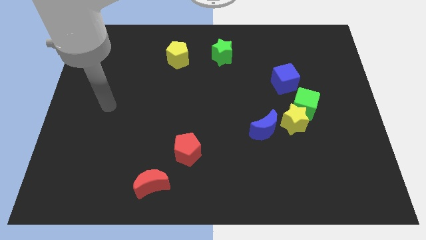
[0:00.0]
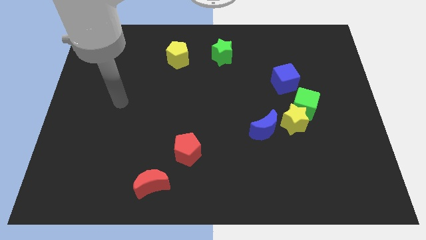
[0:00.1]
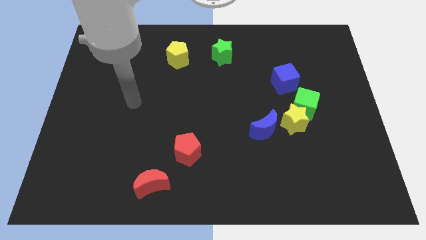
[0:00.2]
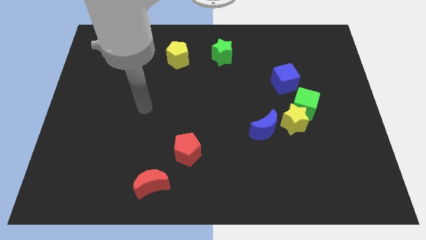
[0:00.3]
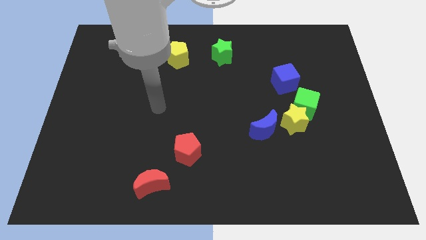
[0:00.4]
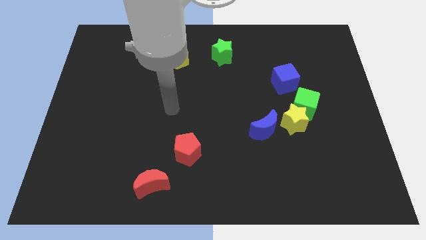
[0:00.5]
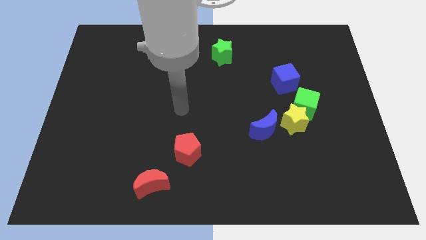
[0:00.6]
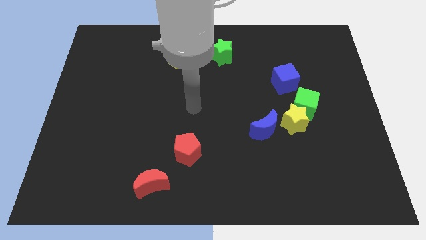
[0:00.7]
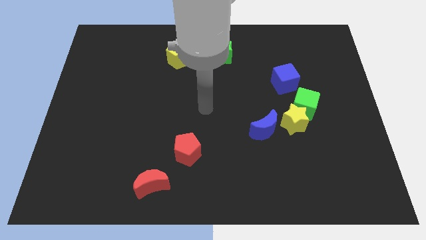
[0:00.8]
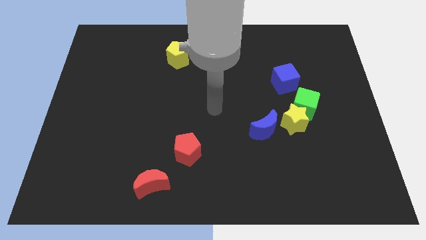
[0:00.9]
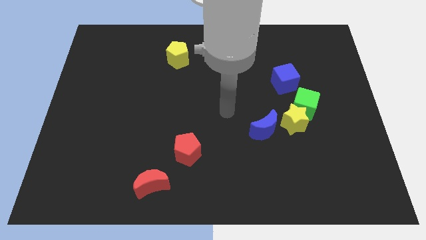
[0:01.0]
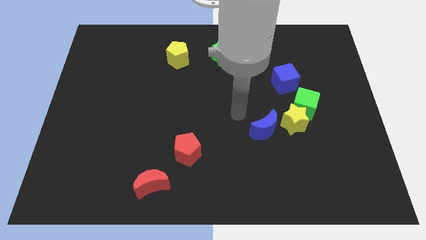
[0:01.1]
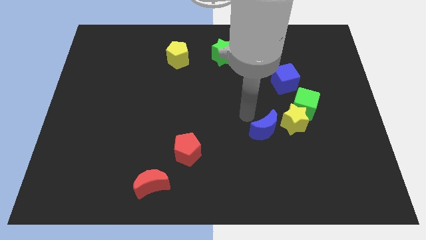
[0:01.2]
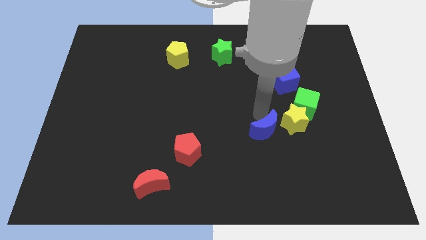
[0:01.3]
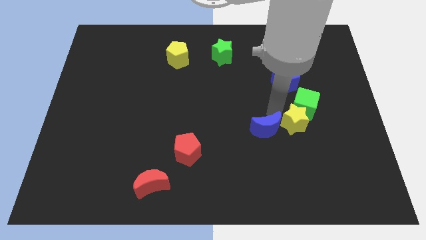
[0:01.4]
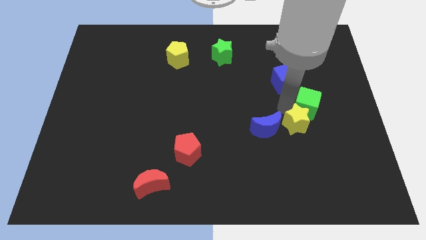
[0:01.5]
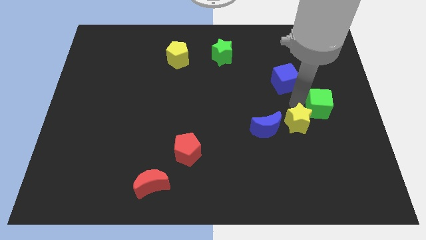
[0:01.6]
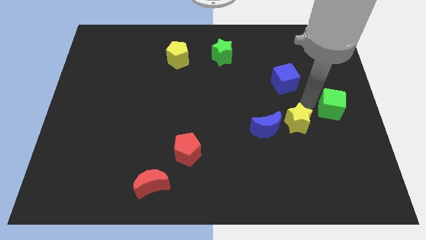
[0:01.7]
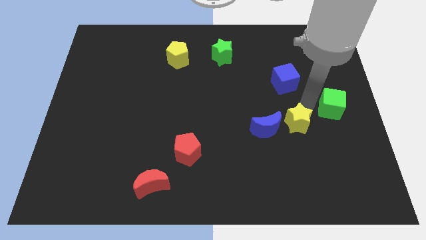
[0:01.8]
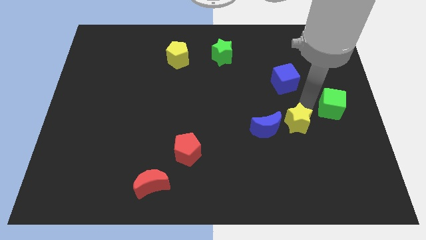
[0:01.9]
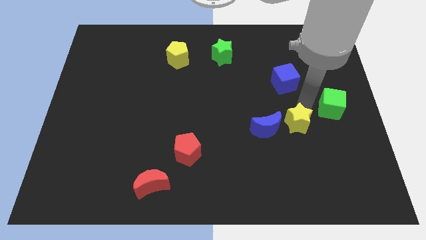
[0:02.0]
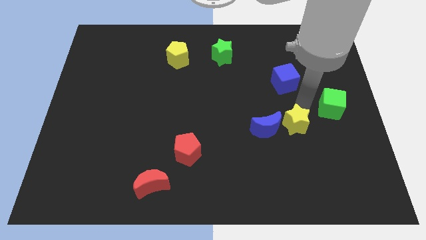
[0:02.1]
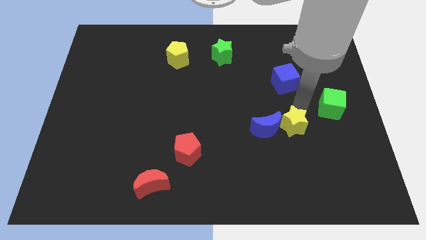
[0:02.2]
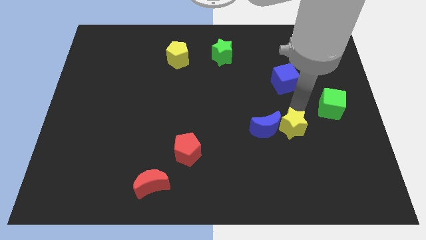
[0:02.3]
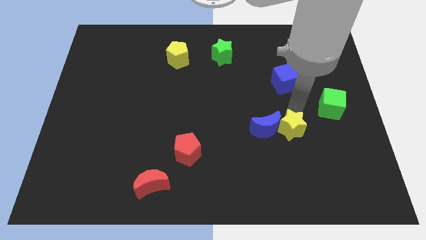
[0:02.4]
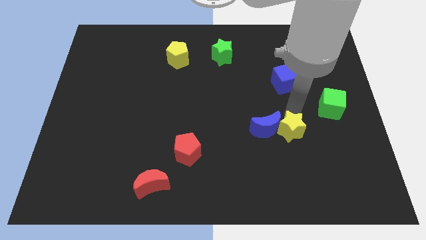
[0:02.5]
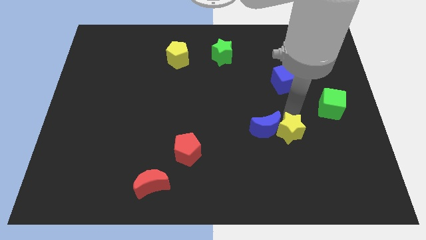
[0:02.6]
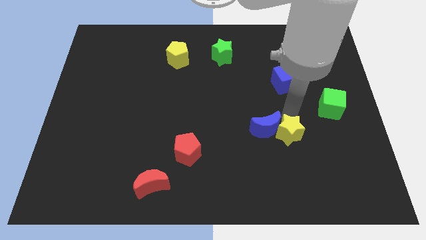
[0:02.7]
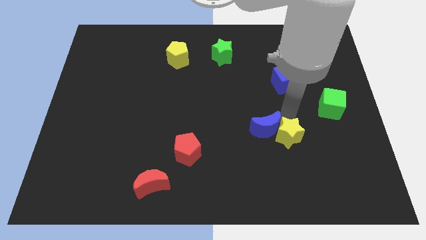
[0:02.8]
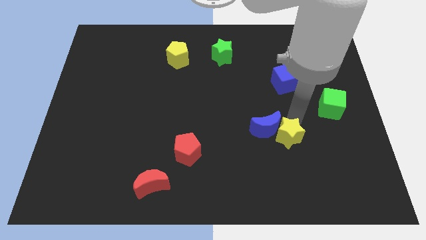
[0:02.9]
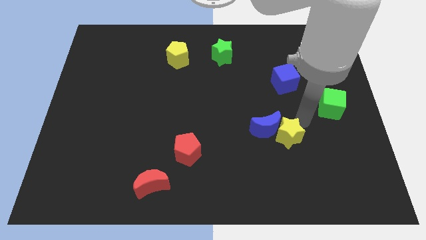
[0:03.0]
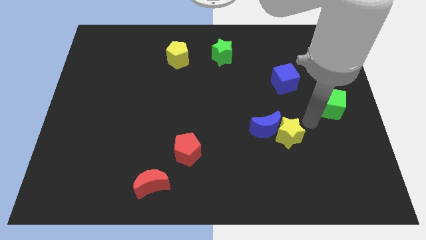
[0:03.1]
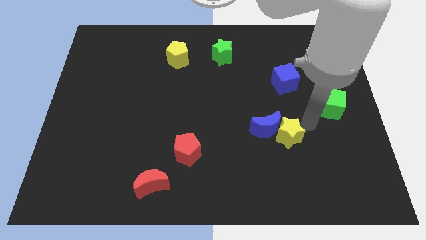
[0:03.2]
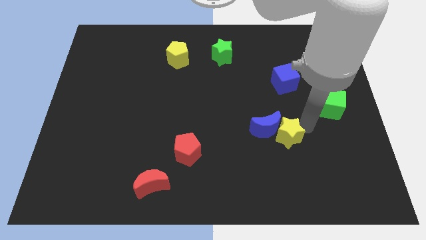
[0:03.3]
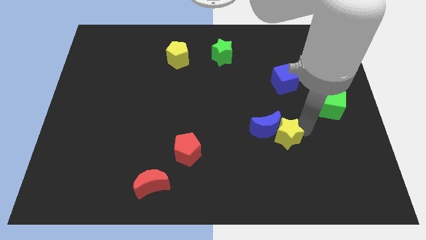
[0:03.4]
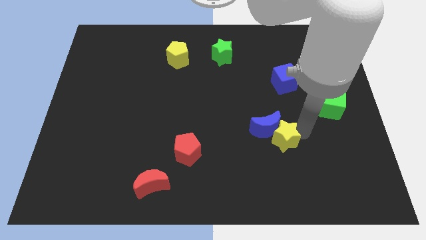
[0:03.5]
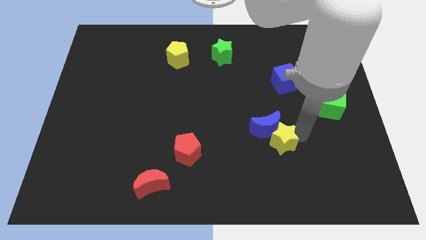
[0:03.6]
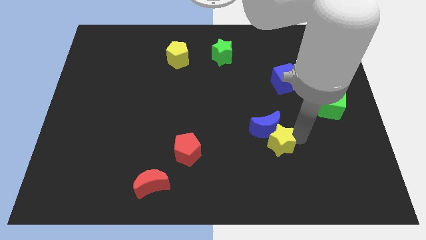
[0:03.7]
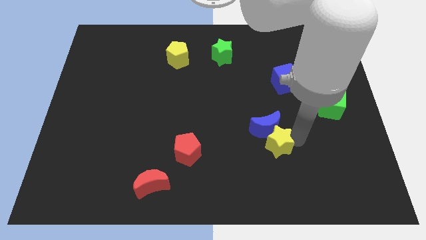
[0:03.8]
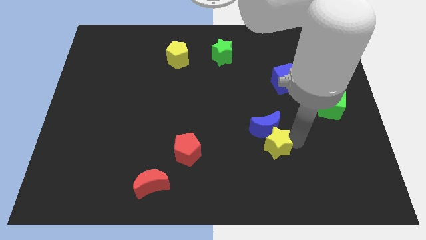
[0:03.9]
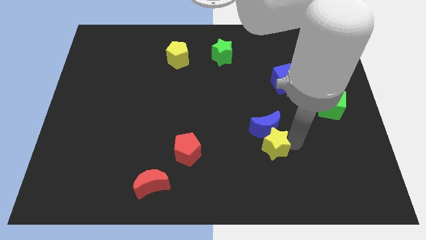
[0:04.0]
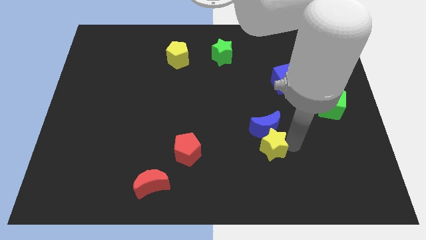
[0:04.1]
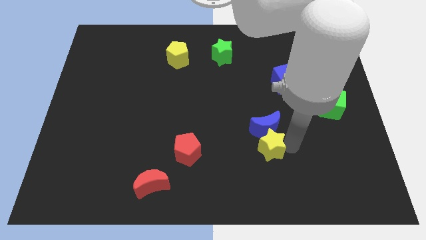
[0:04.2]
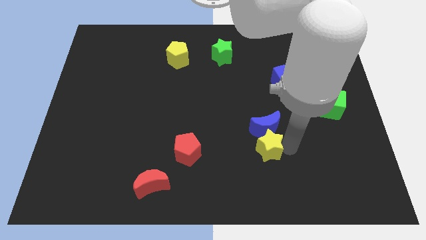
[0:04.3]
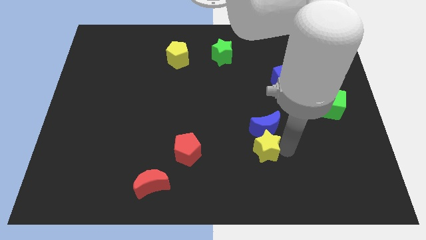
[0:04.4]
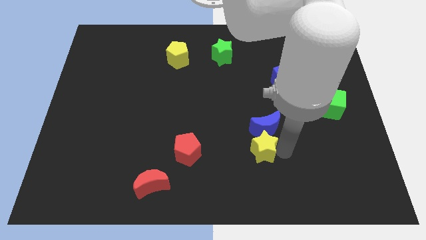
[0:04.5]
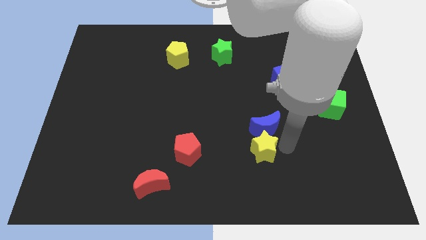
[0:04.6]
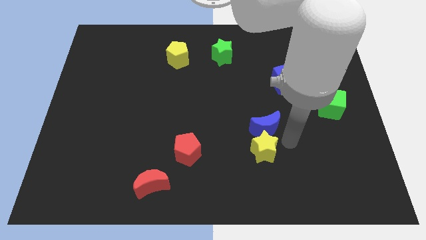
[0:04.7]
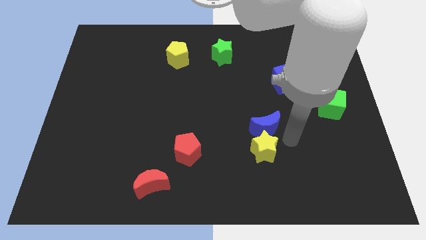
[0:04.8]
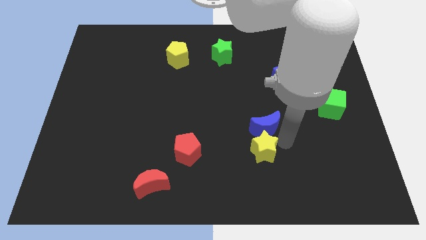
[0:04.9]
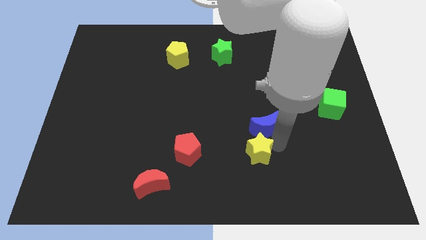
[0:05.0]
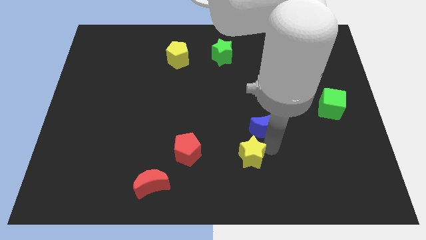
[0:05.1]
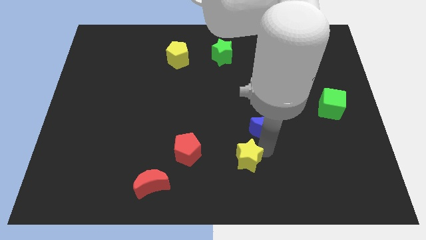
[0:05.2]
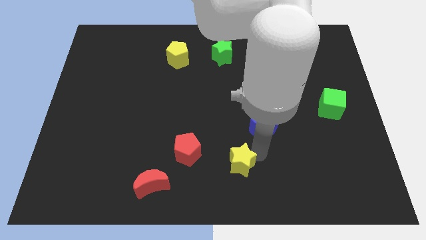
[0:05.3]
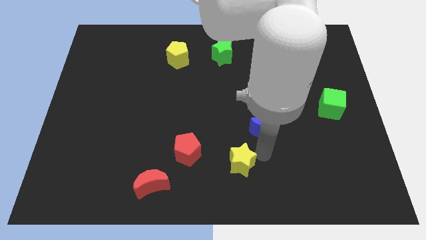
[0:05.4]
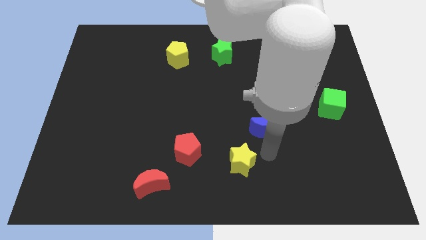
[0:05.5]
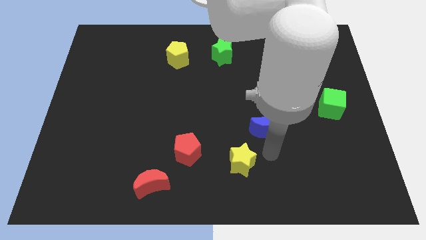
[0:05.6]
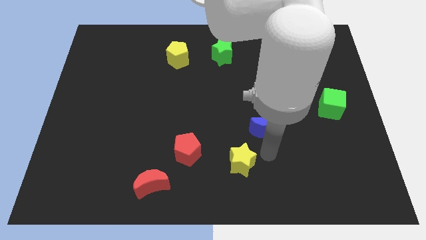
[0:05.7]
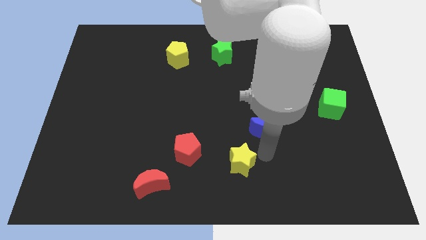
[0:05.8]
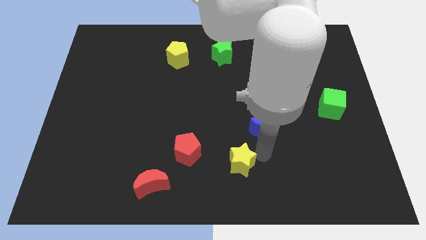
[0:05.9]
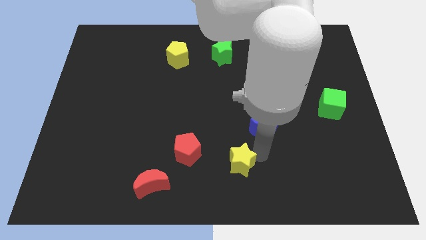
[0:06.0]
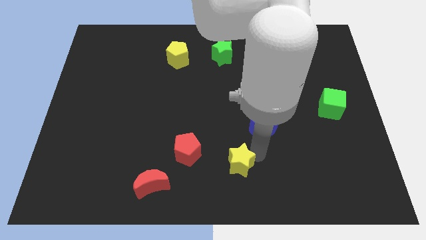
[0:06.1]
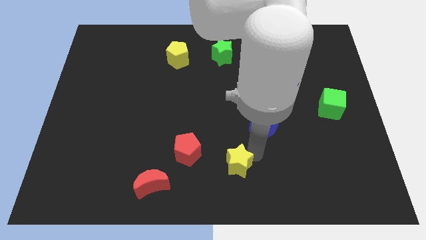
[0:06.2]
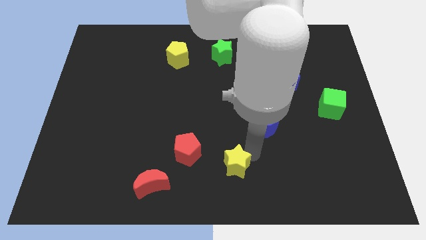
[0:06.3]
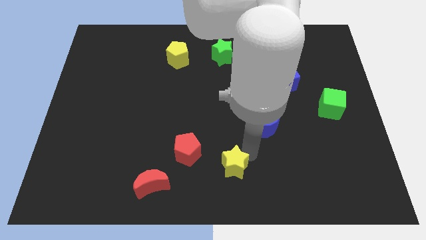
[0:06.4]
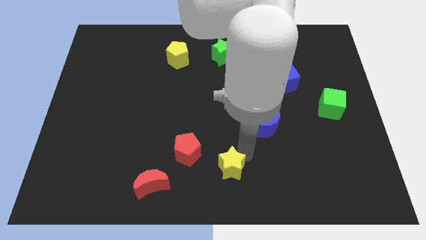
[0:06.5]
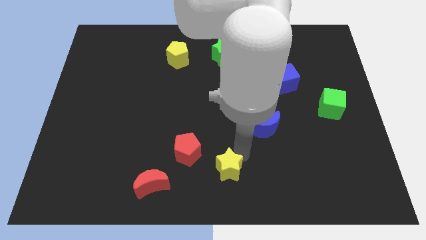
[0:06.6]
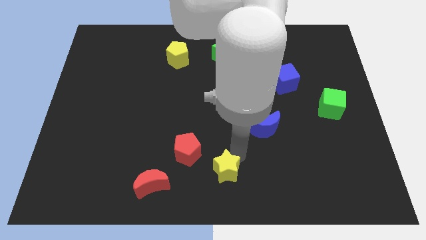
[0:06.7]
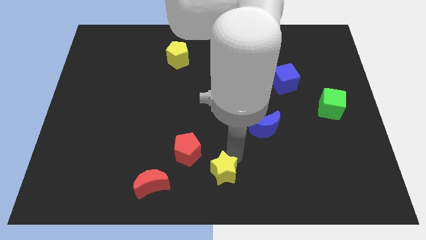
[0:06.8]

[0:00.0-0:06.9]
move the yellow star just right of the red moon
